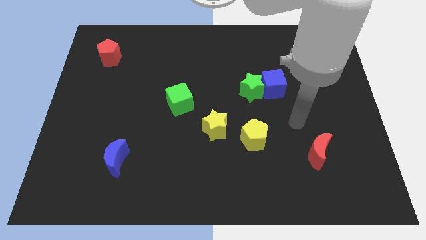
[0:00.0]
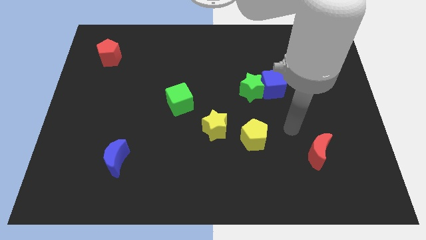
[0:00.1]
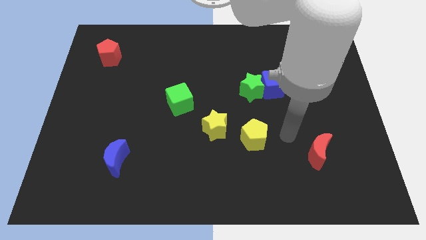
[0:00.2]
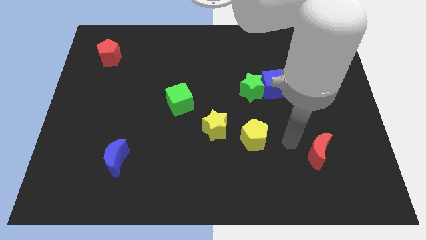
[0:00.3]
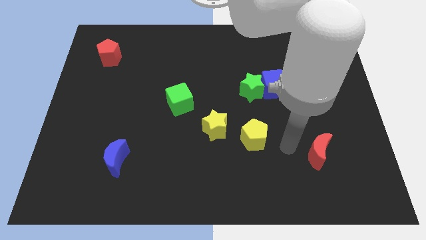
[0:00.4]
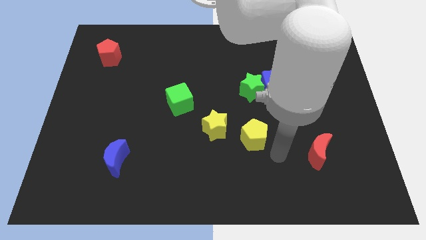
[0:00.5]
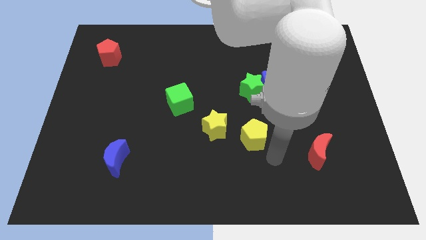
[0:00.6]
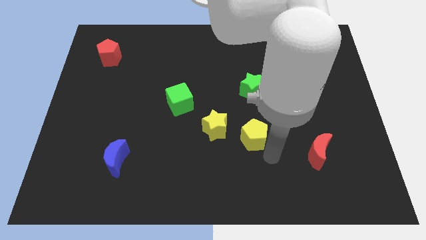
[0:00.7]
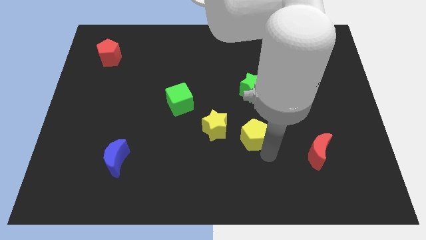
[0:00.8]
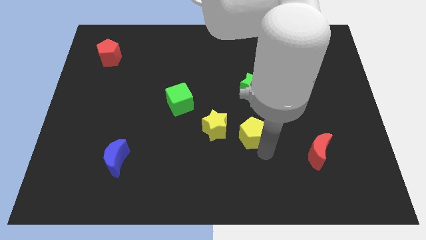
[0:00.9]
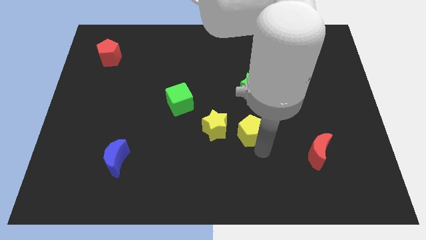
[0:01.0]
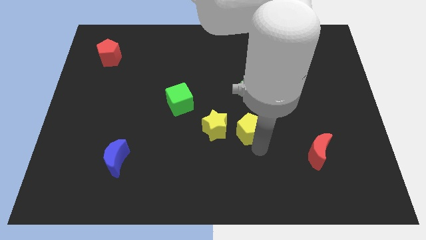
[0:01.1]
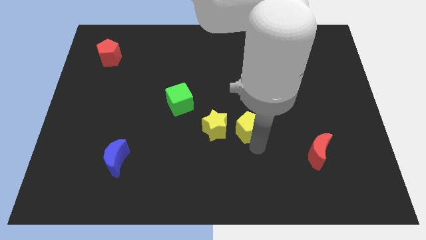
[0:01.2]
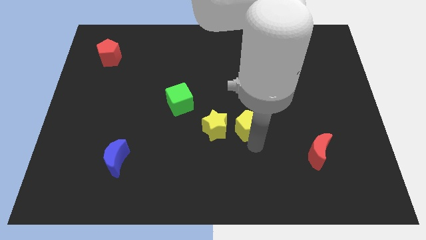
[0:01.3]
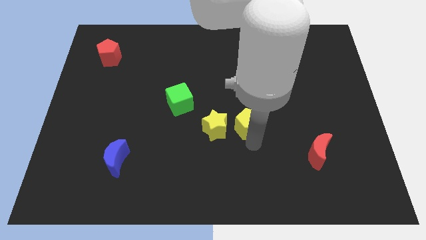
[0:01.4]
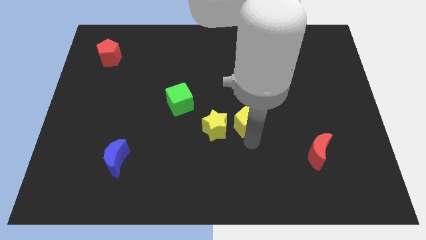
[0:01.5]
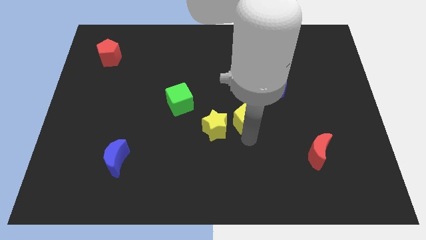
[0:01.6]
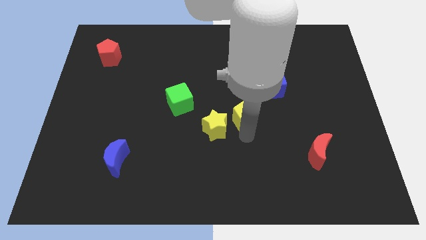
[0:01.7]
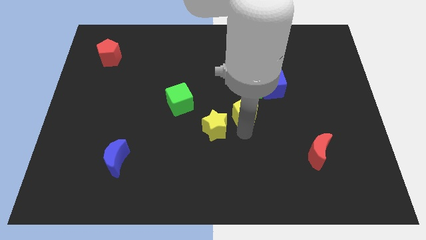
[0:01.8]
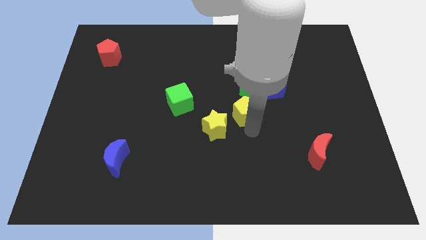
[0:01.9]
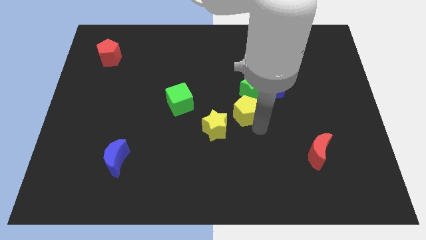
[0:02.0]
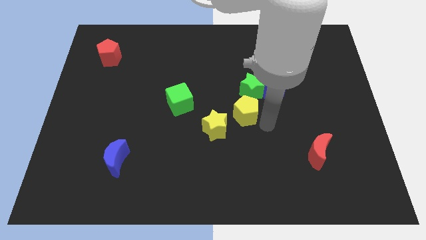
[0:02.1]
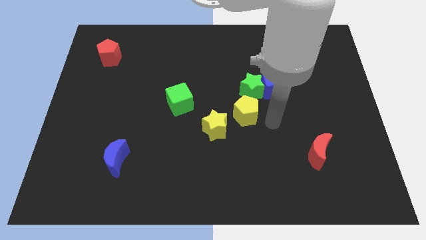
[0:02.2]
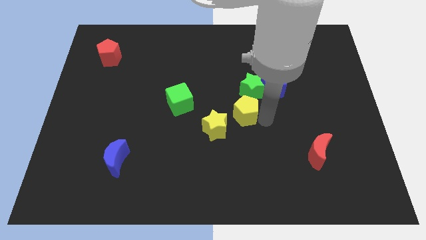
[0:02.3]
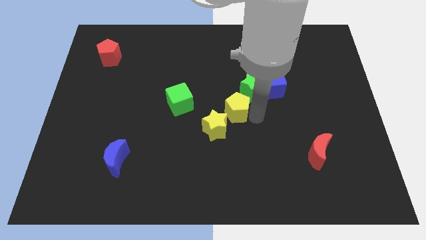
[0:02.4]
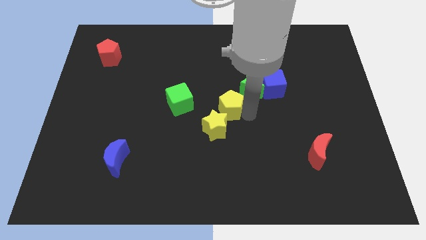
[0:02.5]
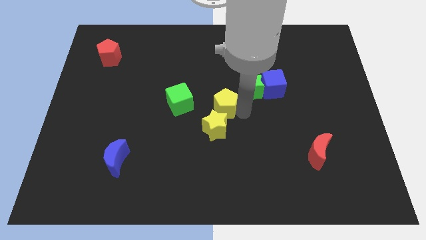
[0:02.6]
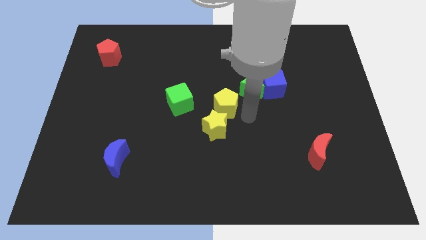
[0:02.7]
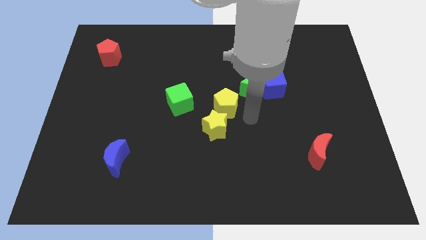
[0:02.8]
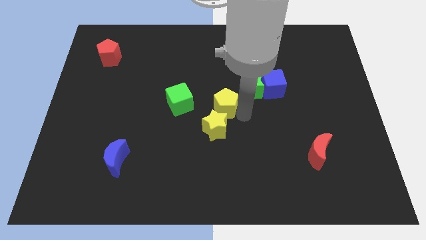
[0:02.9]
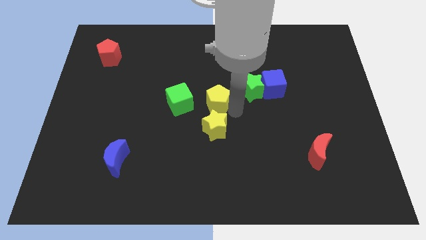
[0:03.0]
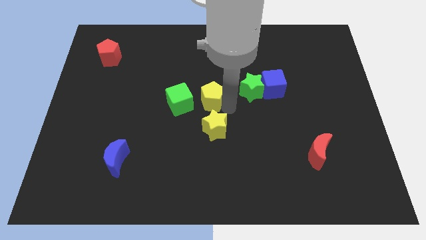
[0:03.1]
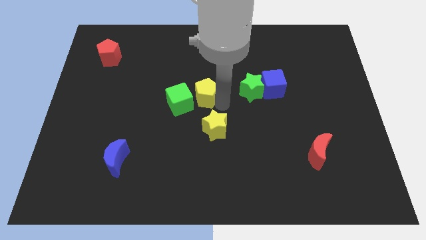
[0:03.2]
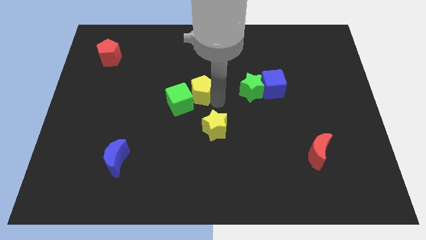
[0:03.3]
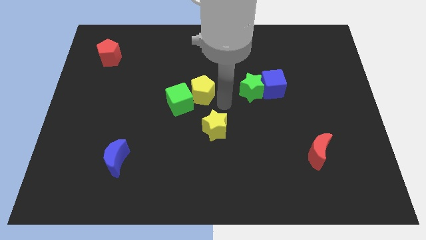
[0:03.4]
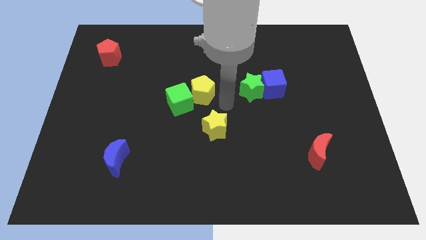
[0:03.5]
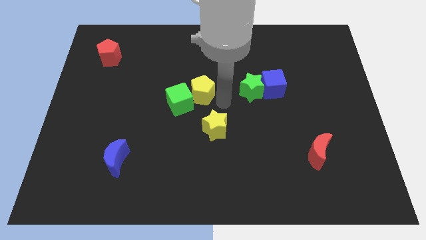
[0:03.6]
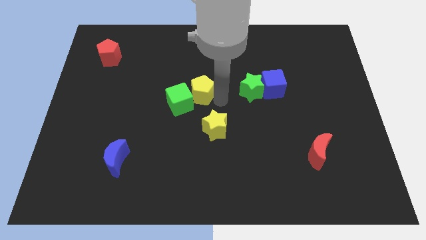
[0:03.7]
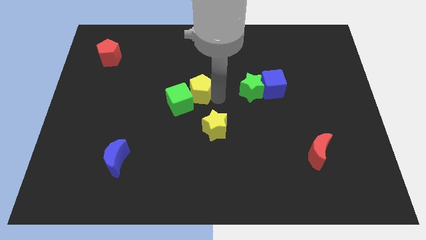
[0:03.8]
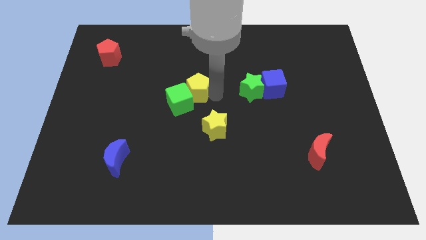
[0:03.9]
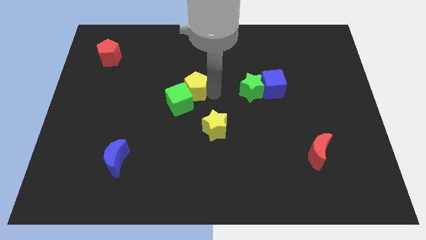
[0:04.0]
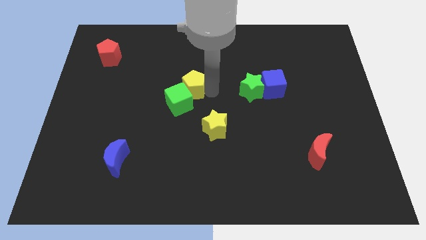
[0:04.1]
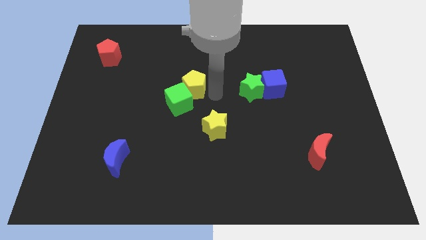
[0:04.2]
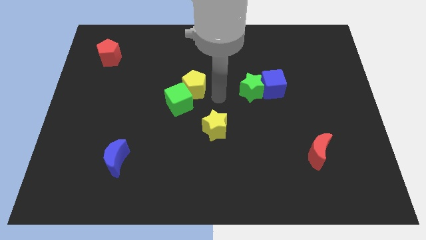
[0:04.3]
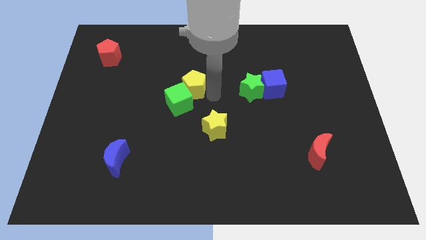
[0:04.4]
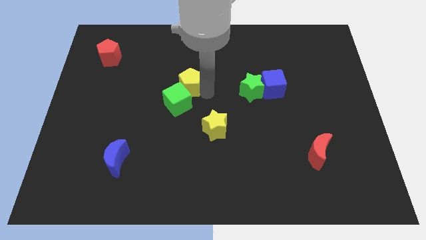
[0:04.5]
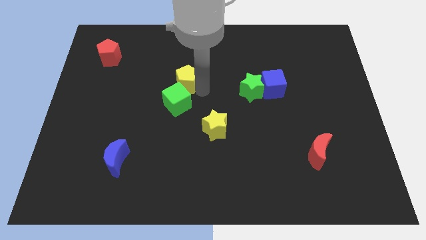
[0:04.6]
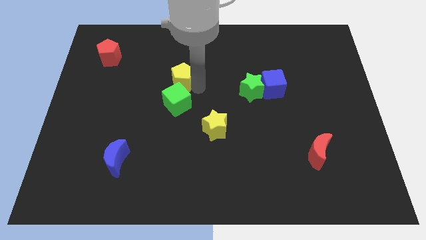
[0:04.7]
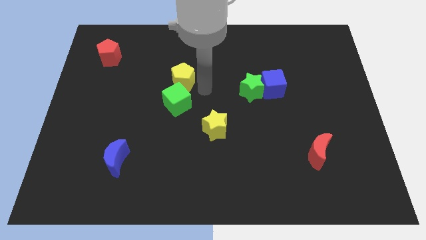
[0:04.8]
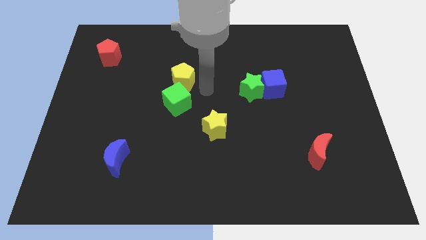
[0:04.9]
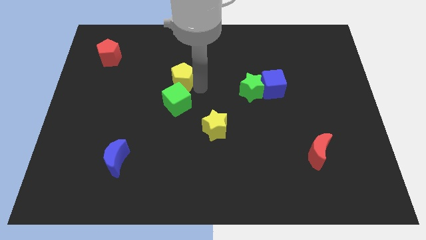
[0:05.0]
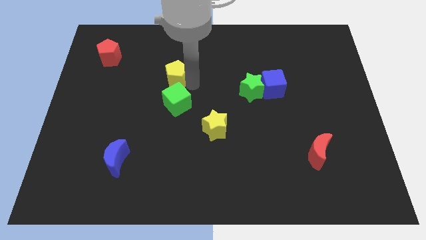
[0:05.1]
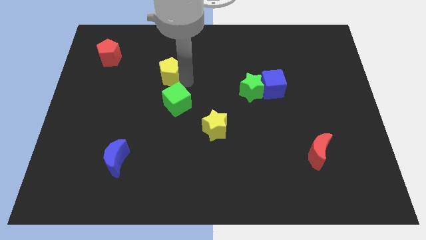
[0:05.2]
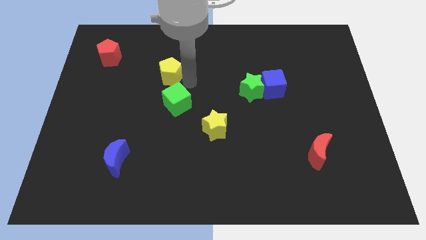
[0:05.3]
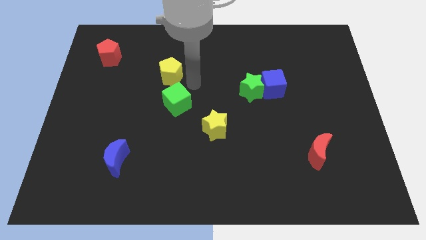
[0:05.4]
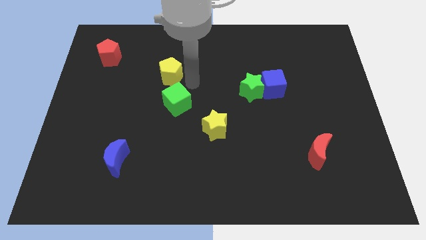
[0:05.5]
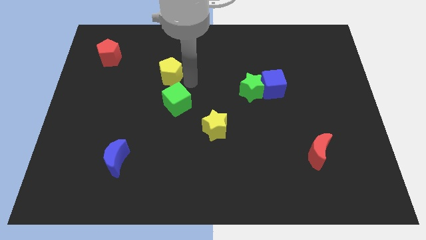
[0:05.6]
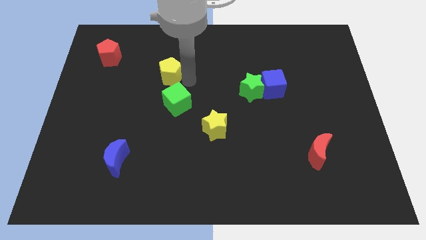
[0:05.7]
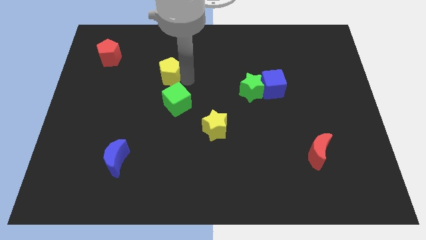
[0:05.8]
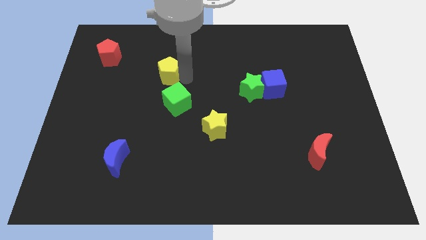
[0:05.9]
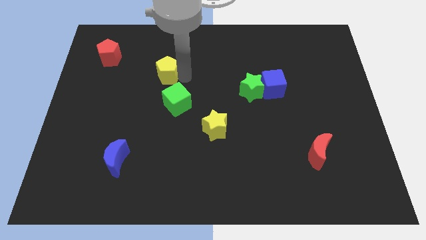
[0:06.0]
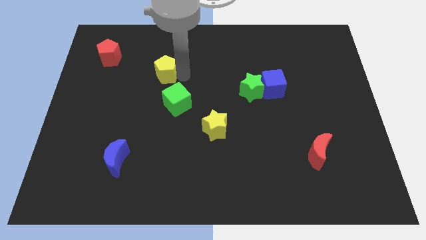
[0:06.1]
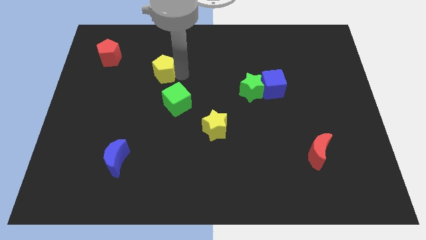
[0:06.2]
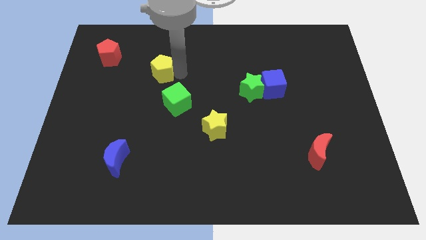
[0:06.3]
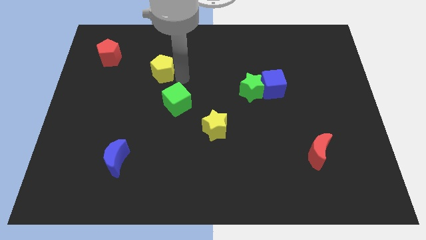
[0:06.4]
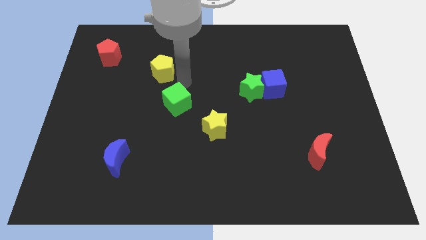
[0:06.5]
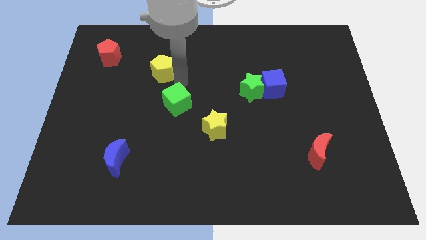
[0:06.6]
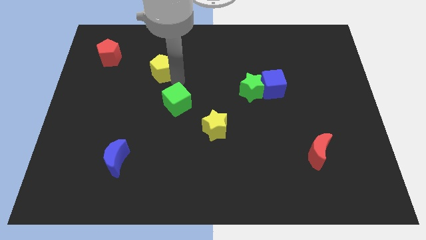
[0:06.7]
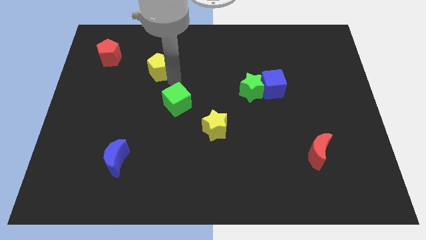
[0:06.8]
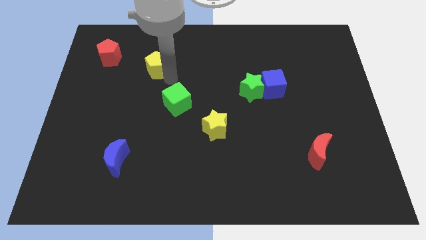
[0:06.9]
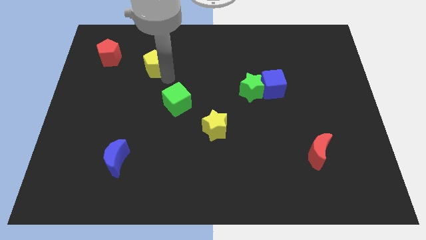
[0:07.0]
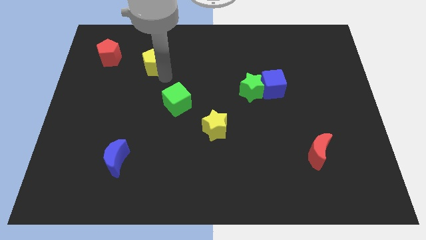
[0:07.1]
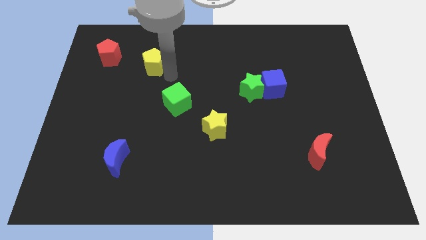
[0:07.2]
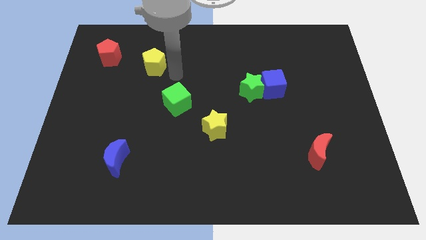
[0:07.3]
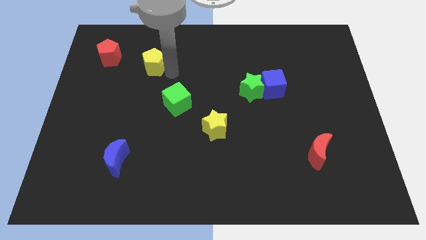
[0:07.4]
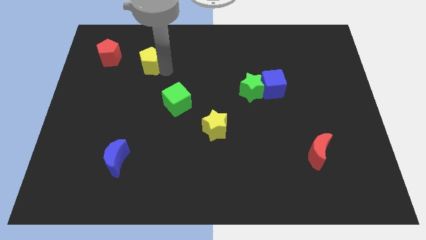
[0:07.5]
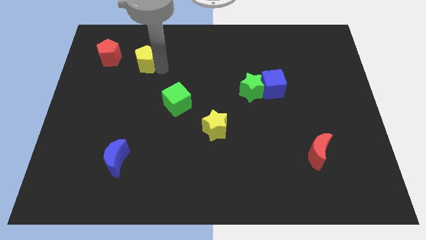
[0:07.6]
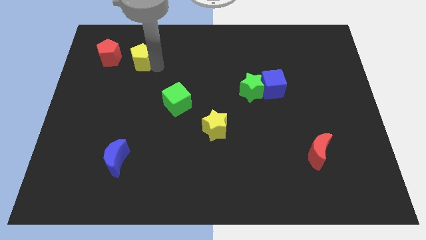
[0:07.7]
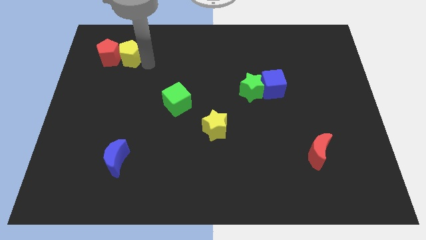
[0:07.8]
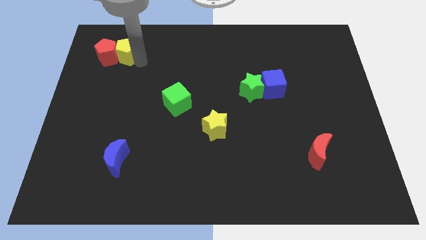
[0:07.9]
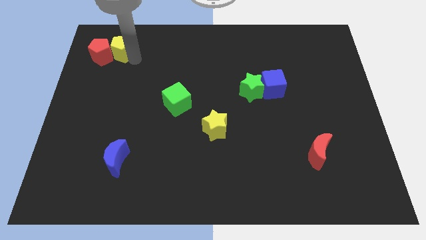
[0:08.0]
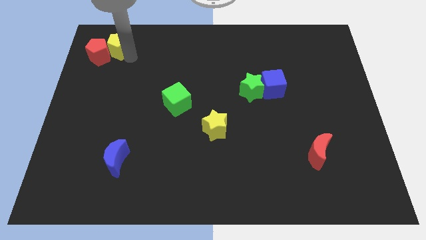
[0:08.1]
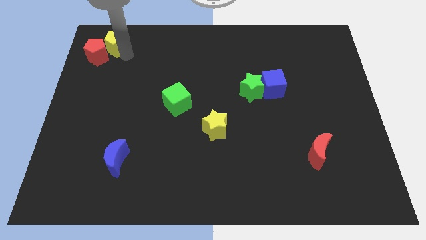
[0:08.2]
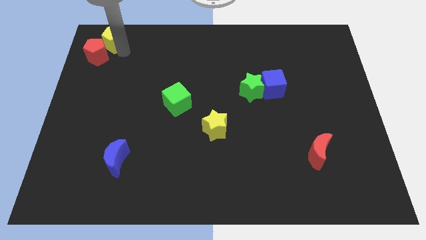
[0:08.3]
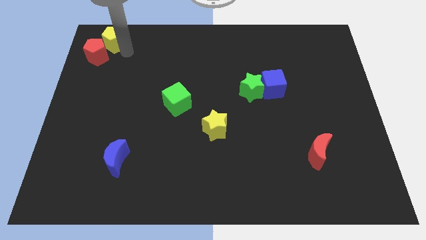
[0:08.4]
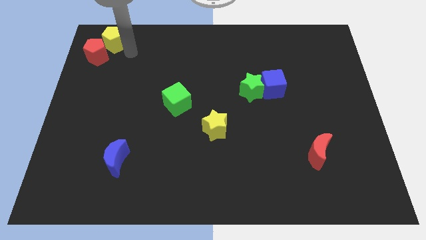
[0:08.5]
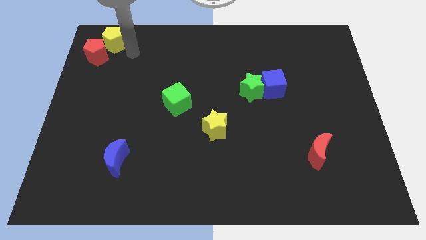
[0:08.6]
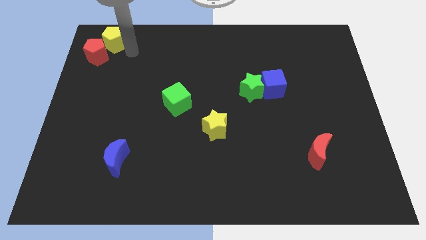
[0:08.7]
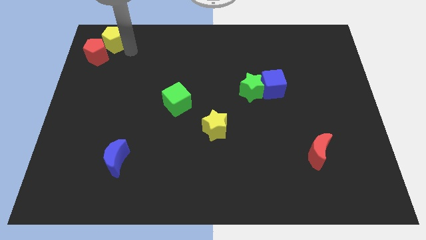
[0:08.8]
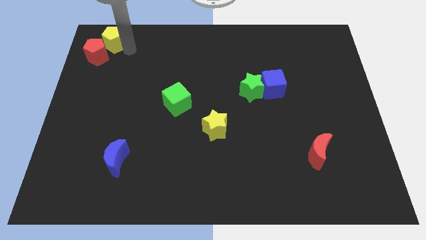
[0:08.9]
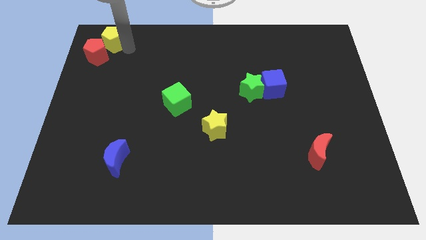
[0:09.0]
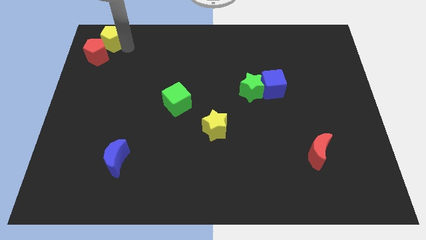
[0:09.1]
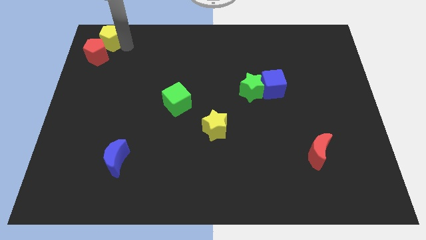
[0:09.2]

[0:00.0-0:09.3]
put the yellow pentagon to the top left corner
